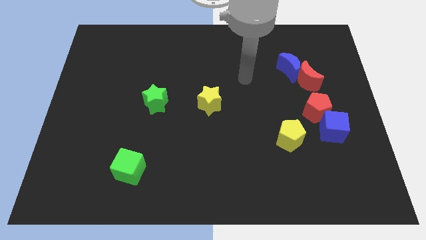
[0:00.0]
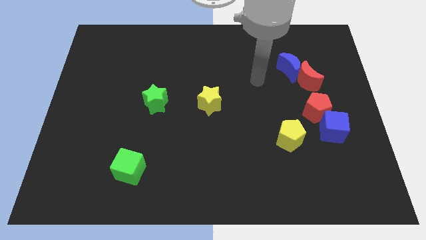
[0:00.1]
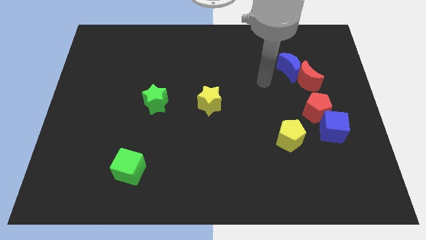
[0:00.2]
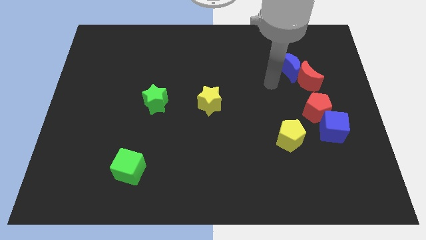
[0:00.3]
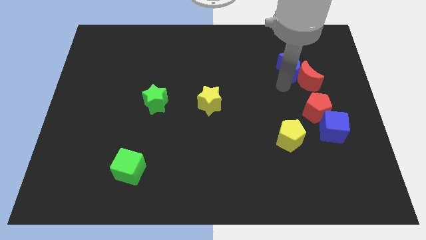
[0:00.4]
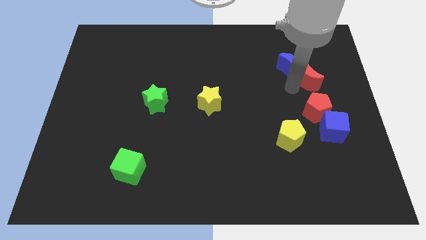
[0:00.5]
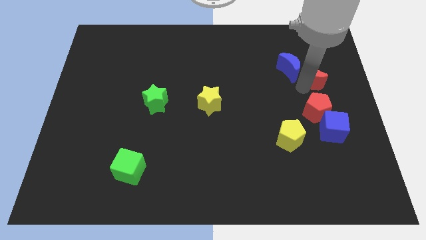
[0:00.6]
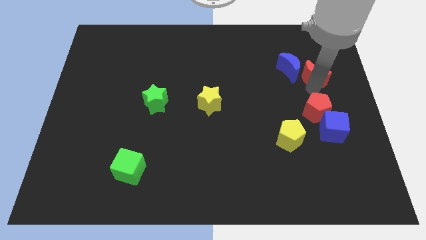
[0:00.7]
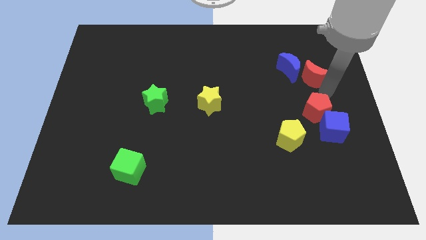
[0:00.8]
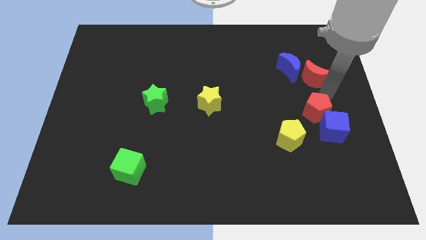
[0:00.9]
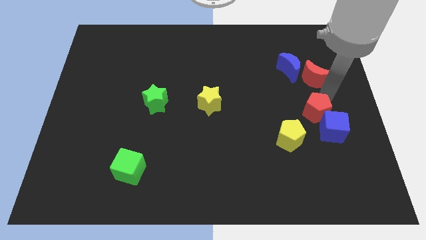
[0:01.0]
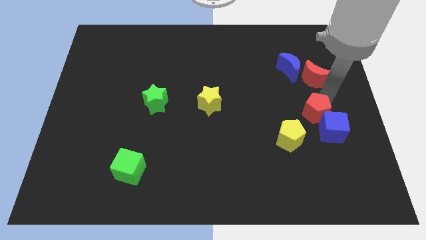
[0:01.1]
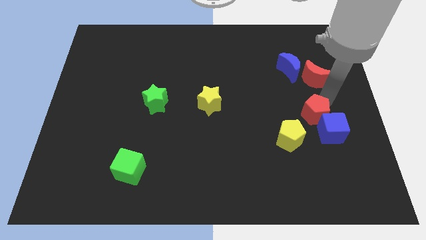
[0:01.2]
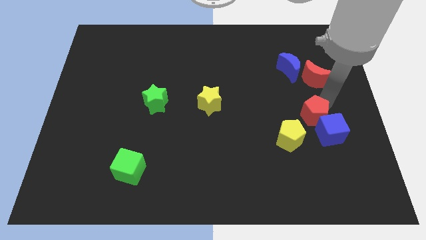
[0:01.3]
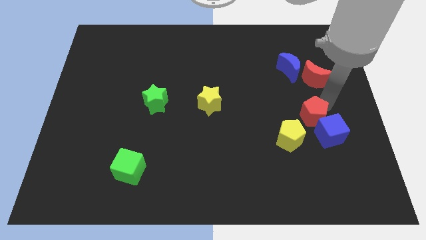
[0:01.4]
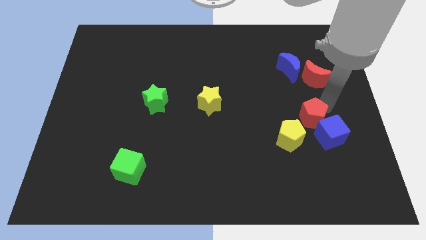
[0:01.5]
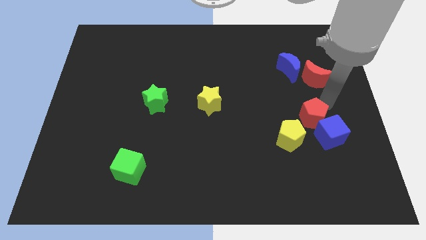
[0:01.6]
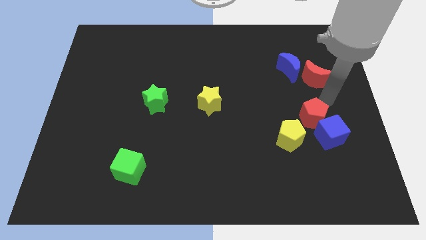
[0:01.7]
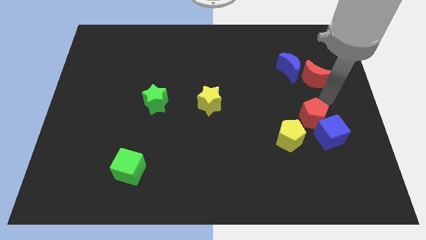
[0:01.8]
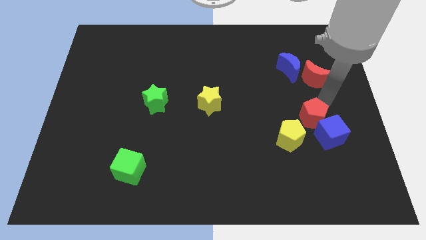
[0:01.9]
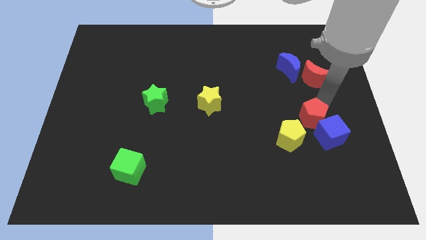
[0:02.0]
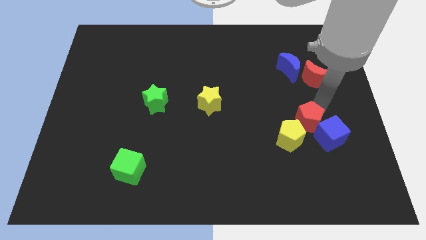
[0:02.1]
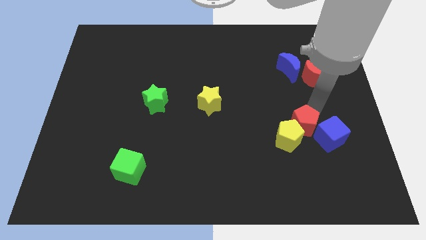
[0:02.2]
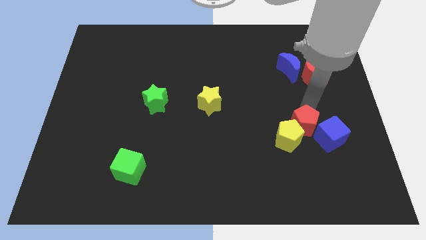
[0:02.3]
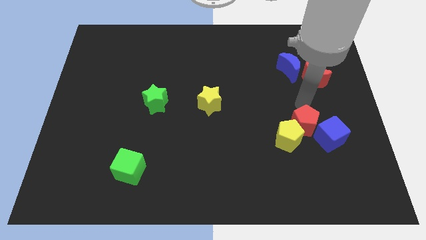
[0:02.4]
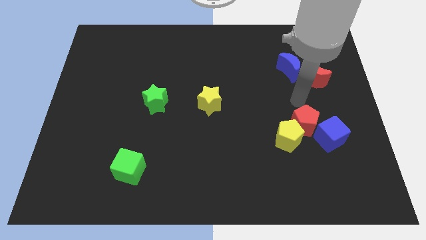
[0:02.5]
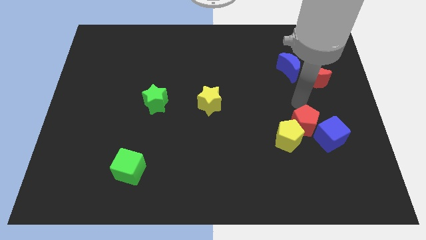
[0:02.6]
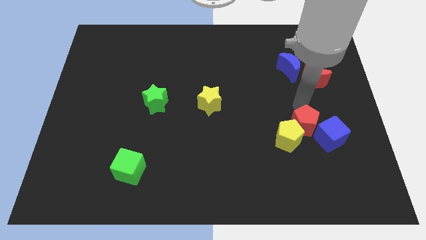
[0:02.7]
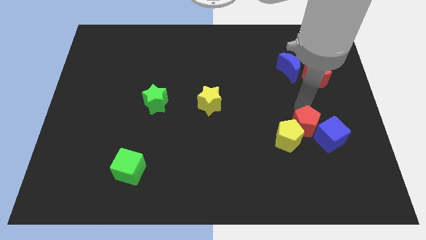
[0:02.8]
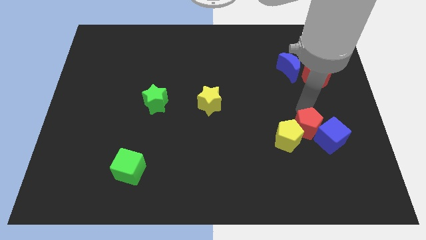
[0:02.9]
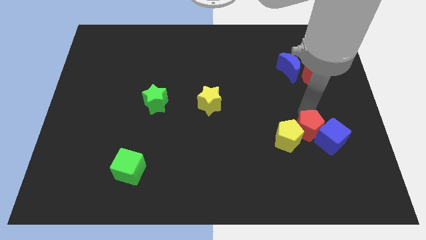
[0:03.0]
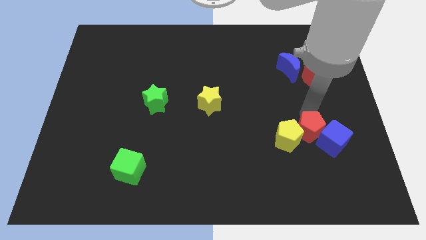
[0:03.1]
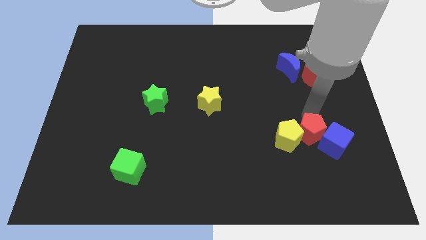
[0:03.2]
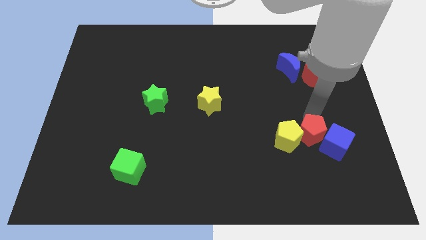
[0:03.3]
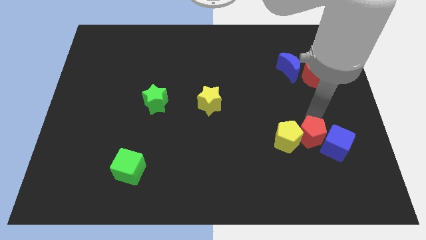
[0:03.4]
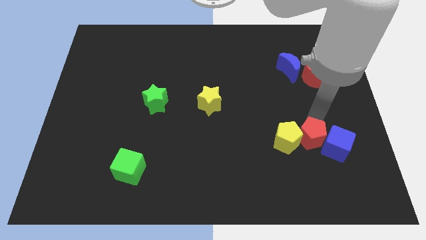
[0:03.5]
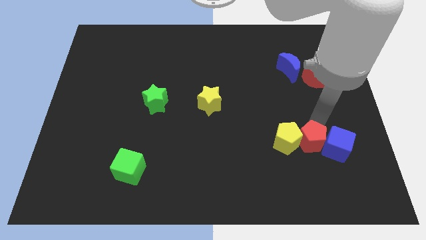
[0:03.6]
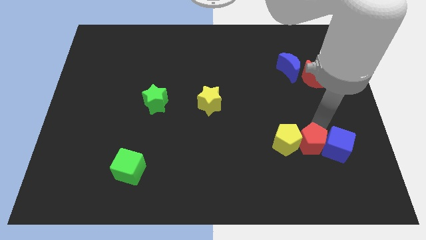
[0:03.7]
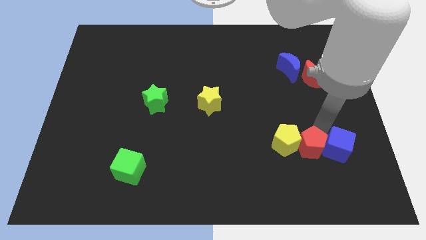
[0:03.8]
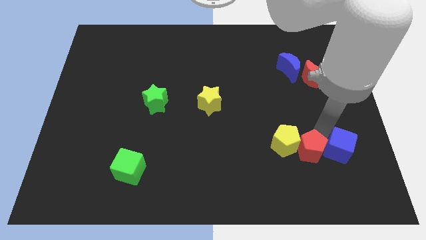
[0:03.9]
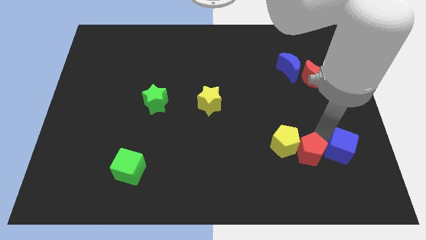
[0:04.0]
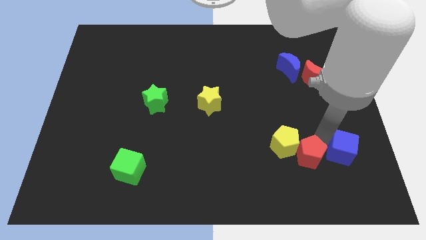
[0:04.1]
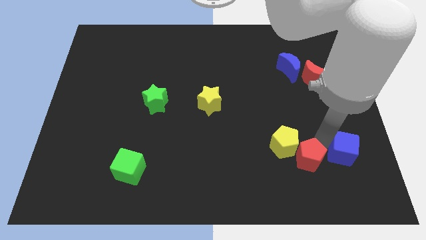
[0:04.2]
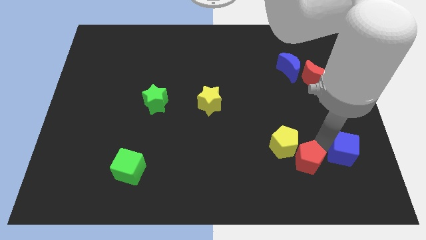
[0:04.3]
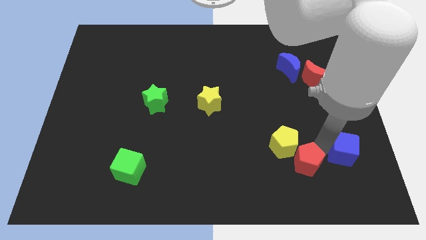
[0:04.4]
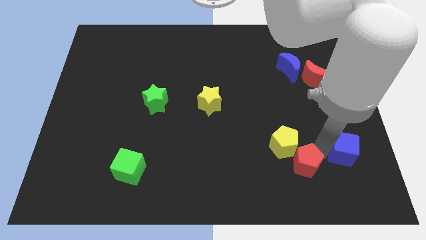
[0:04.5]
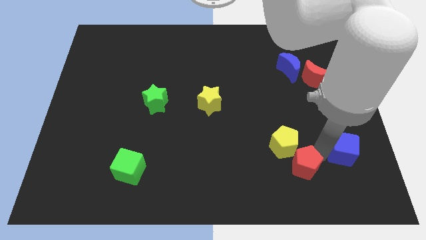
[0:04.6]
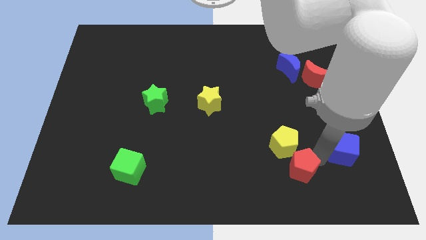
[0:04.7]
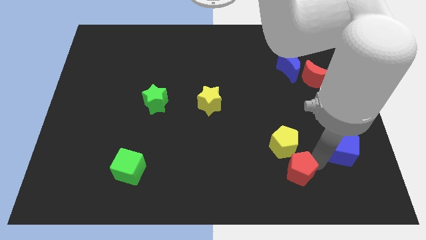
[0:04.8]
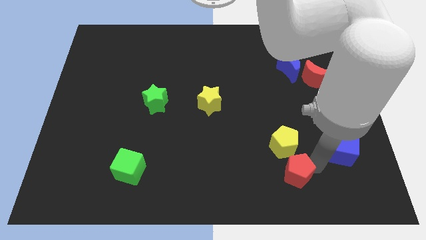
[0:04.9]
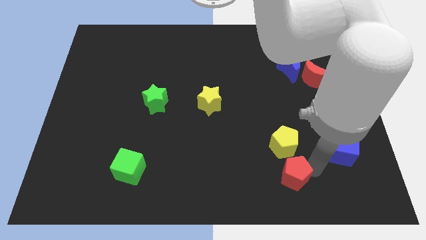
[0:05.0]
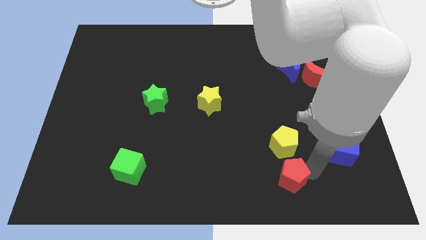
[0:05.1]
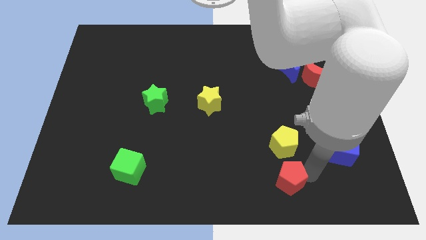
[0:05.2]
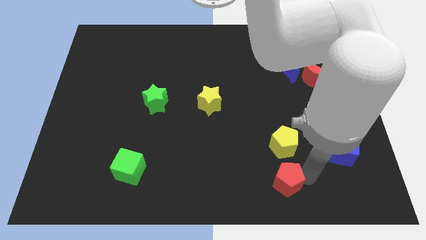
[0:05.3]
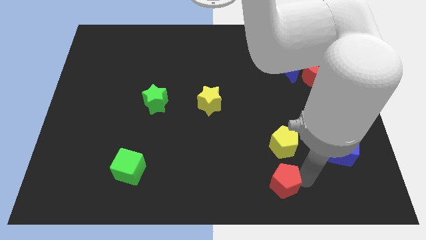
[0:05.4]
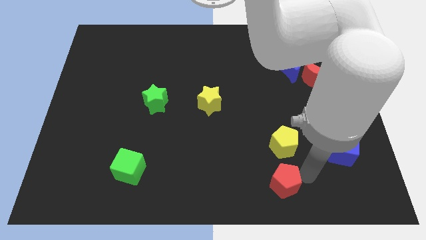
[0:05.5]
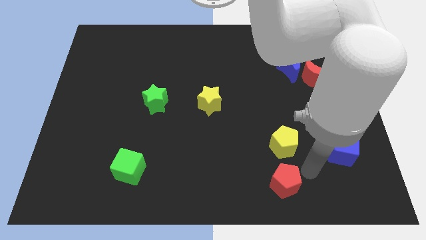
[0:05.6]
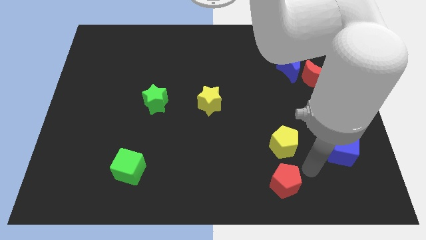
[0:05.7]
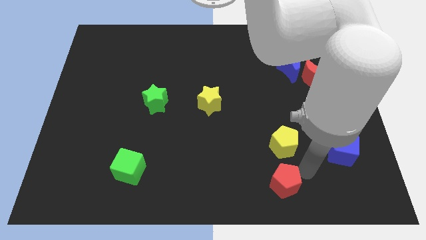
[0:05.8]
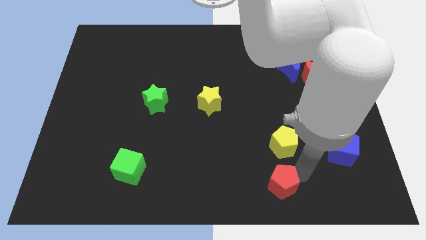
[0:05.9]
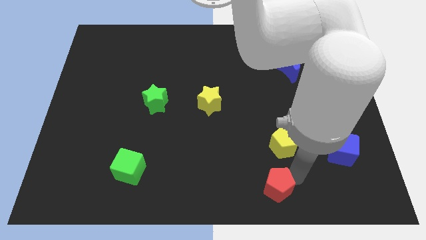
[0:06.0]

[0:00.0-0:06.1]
put the red pentagon to the bottom
